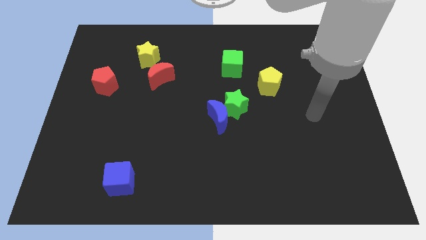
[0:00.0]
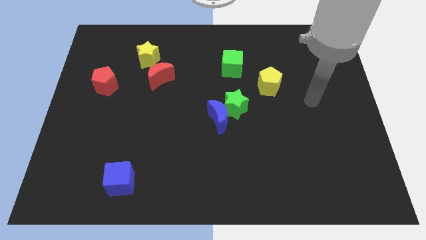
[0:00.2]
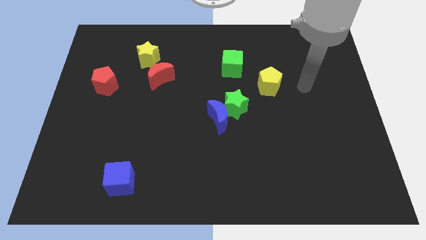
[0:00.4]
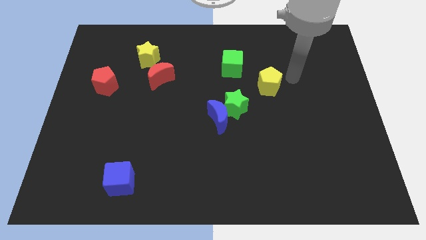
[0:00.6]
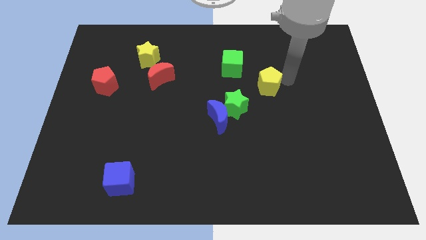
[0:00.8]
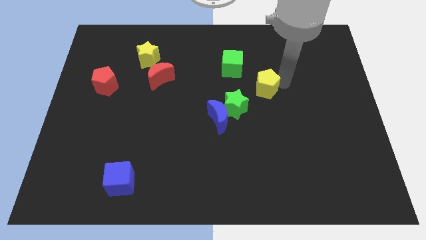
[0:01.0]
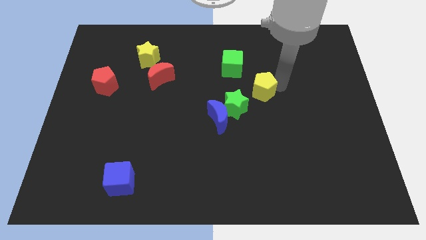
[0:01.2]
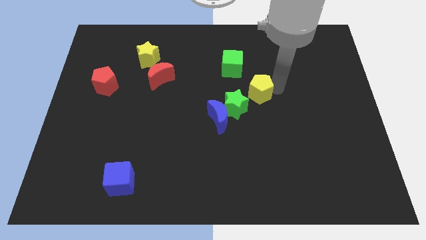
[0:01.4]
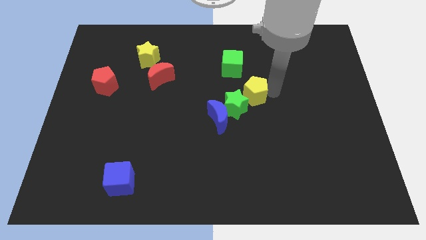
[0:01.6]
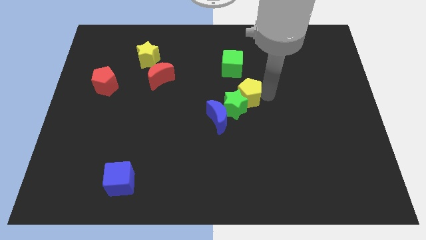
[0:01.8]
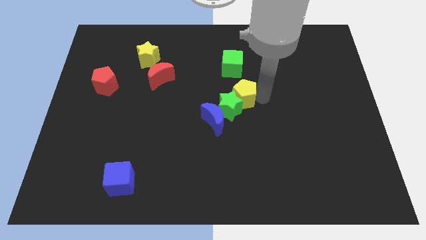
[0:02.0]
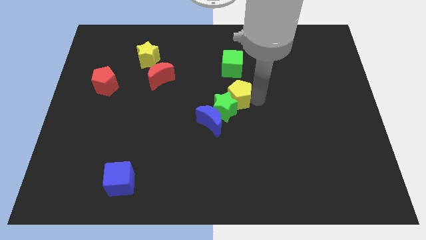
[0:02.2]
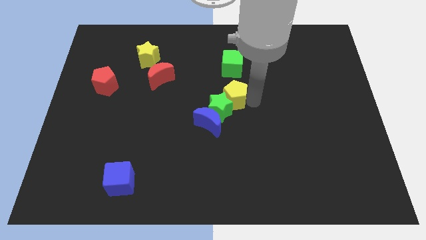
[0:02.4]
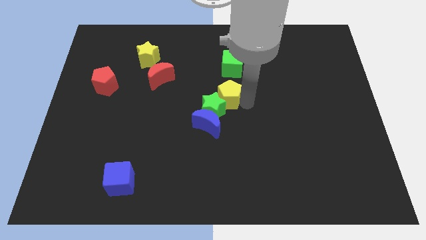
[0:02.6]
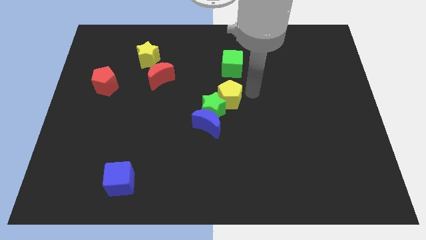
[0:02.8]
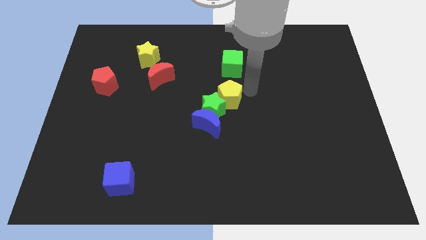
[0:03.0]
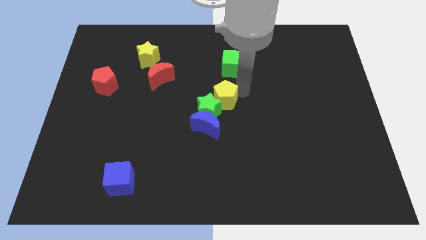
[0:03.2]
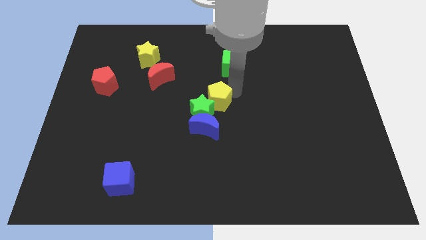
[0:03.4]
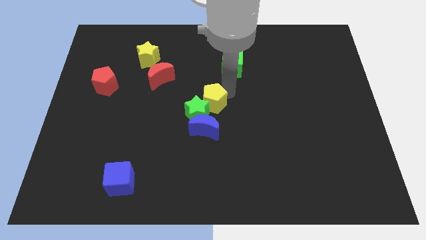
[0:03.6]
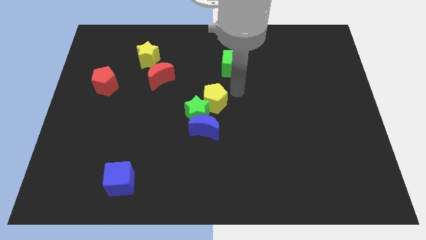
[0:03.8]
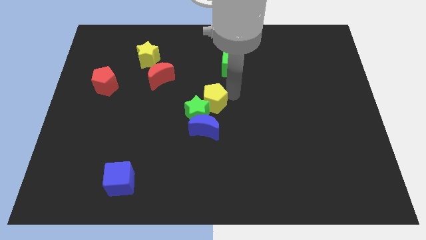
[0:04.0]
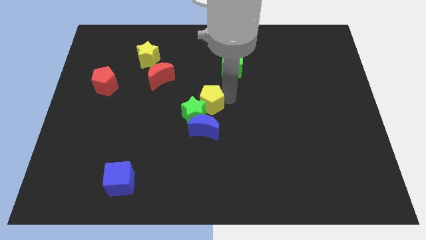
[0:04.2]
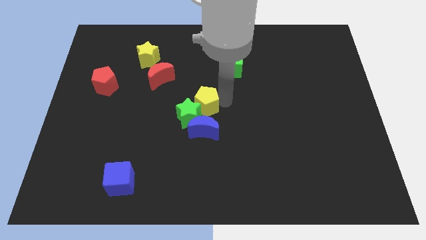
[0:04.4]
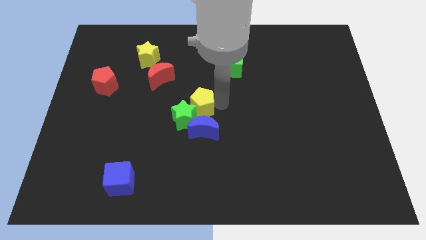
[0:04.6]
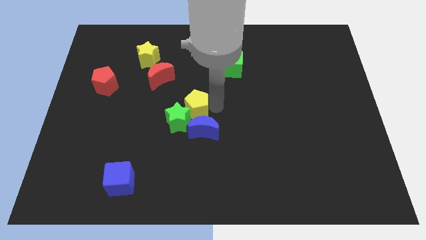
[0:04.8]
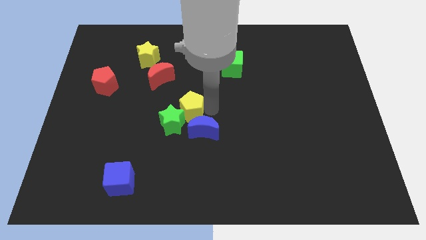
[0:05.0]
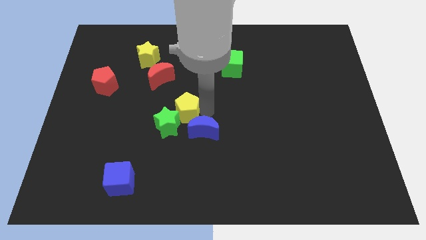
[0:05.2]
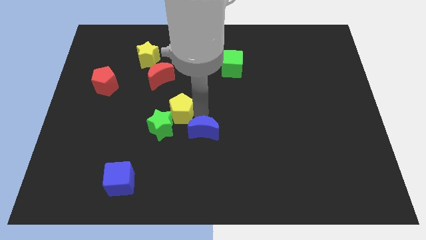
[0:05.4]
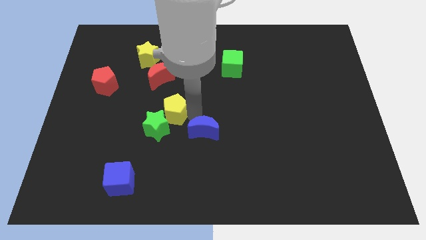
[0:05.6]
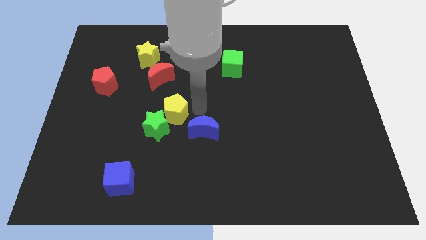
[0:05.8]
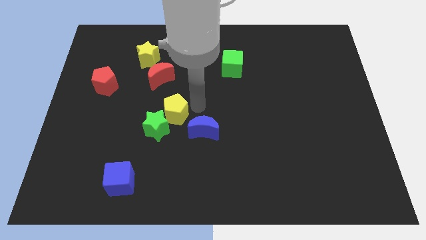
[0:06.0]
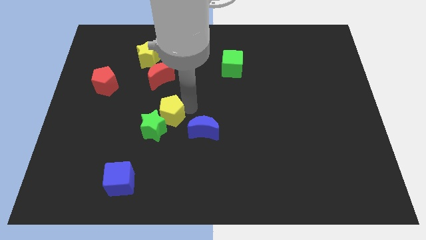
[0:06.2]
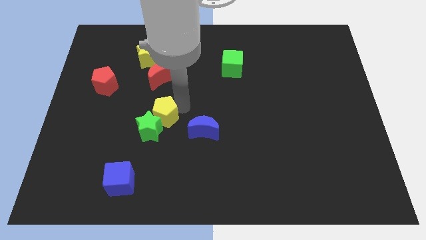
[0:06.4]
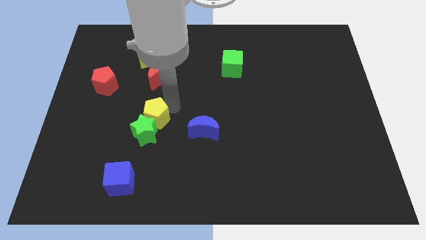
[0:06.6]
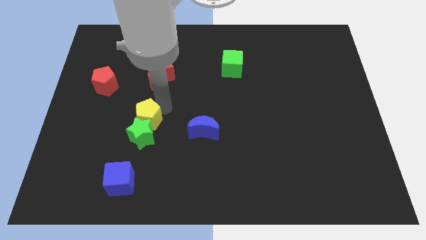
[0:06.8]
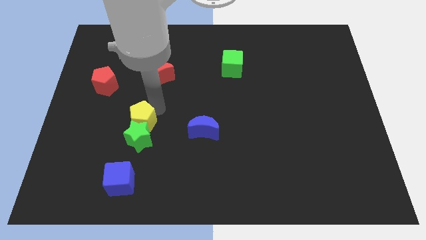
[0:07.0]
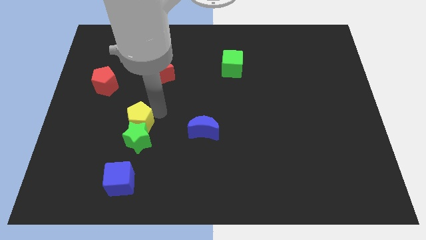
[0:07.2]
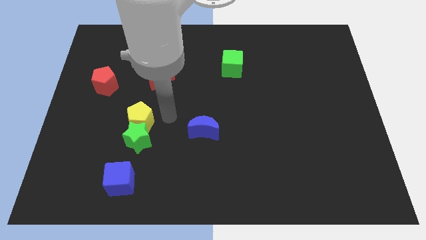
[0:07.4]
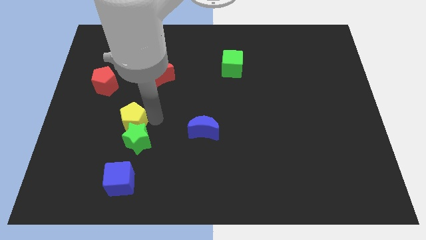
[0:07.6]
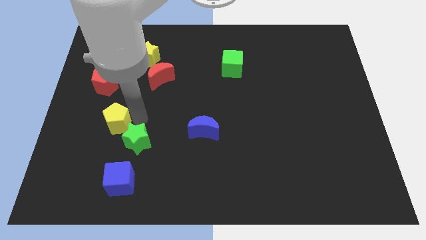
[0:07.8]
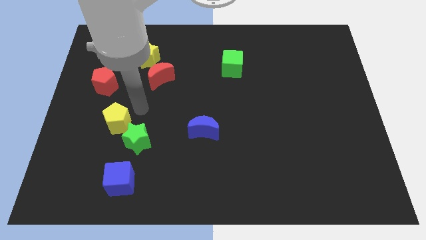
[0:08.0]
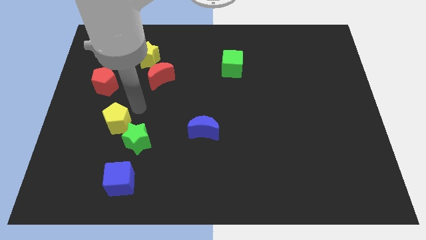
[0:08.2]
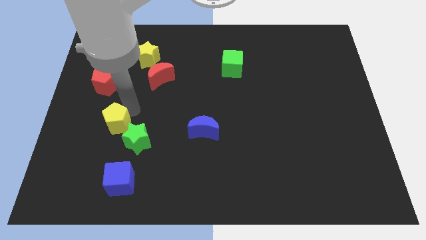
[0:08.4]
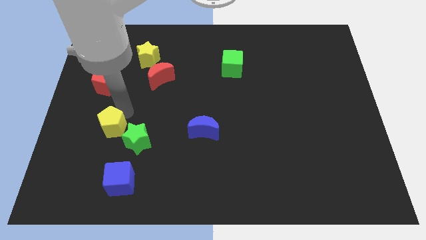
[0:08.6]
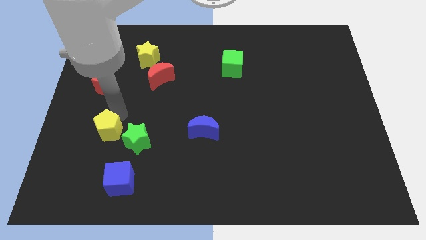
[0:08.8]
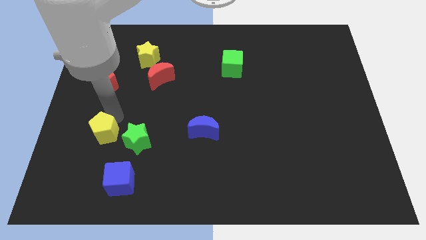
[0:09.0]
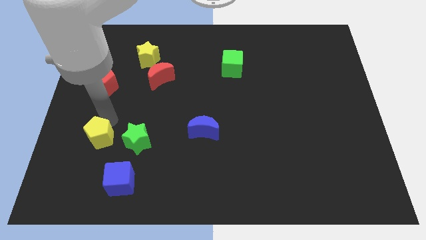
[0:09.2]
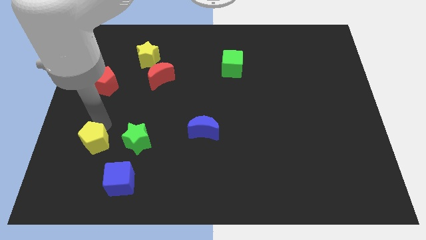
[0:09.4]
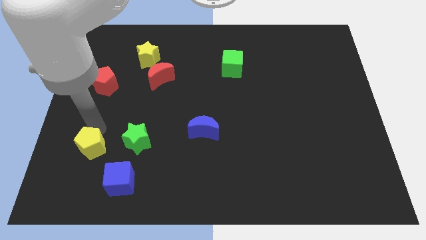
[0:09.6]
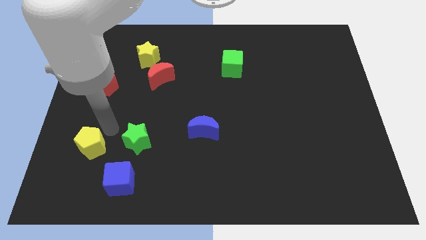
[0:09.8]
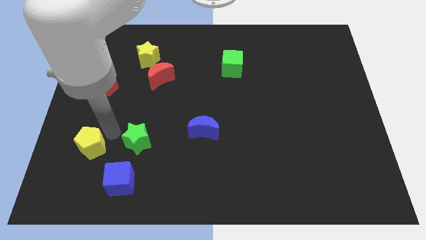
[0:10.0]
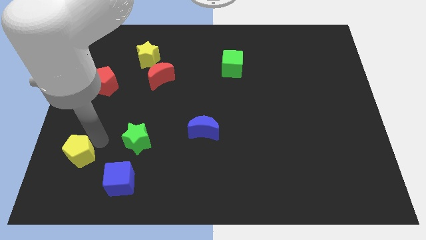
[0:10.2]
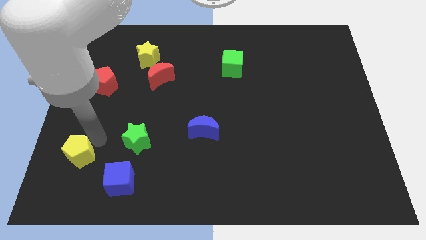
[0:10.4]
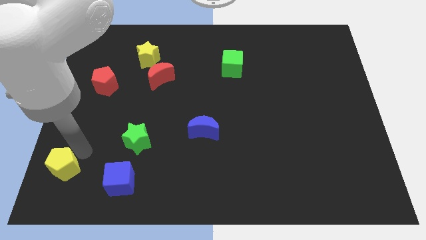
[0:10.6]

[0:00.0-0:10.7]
push the yellow pentagon to the lower left corner

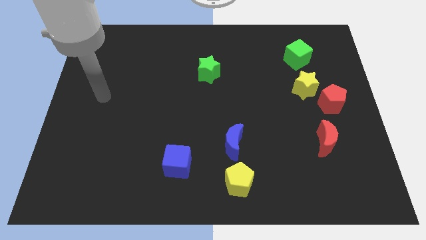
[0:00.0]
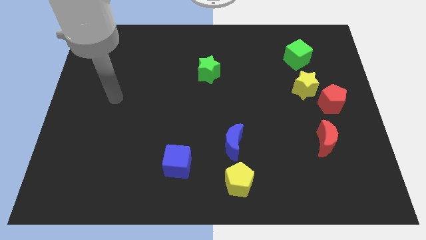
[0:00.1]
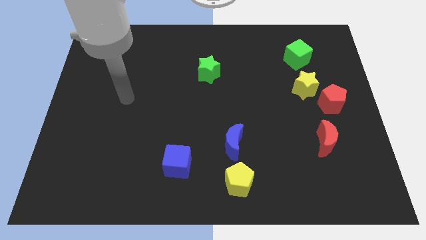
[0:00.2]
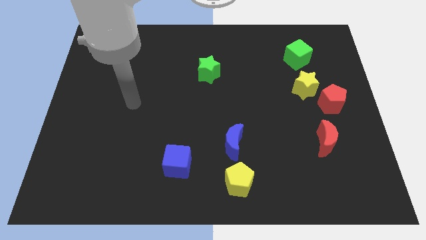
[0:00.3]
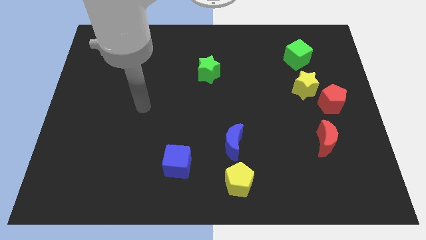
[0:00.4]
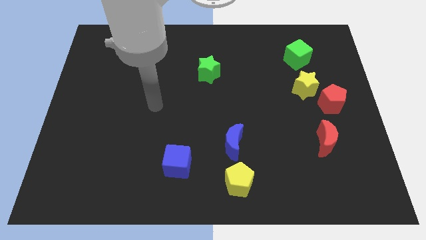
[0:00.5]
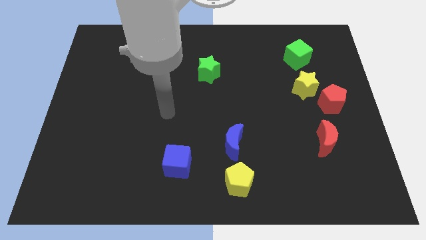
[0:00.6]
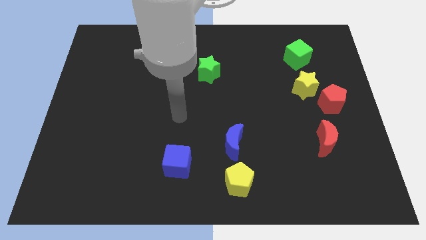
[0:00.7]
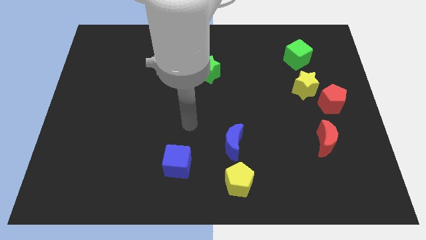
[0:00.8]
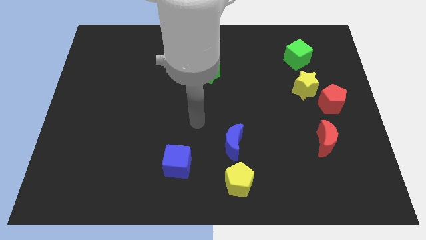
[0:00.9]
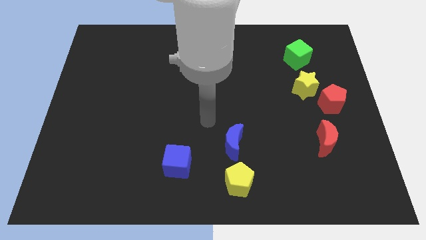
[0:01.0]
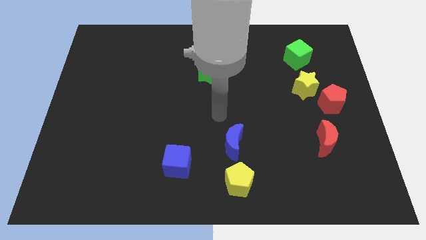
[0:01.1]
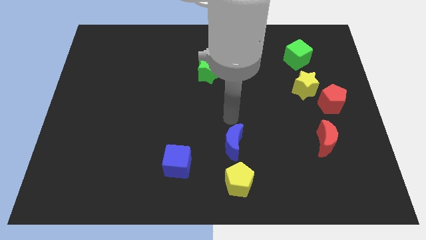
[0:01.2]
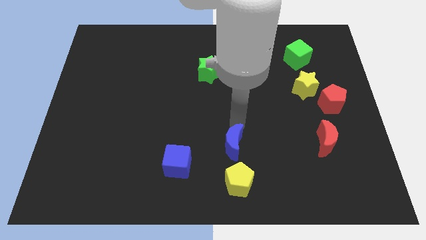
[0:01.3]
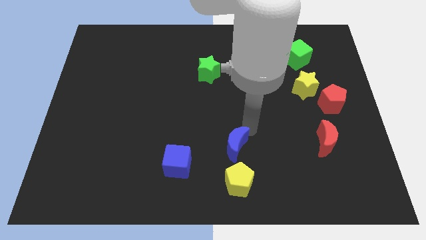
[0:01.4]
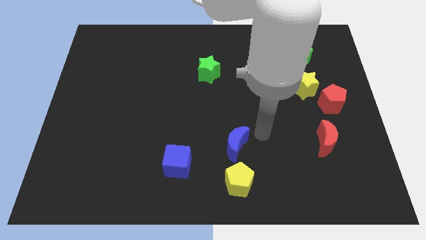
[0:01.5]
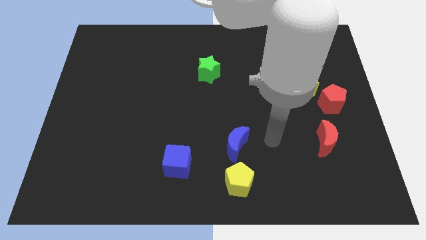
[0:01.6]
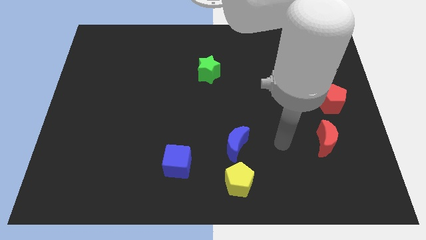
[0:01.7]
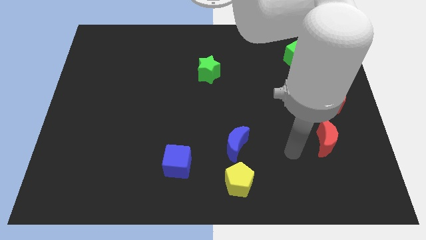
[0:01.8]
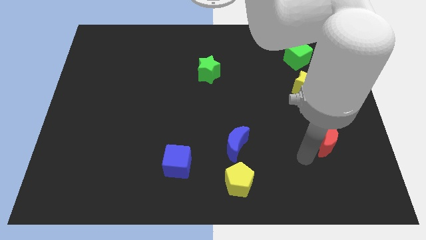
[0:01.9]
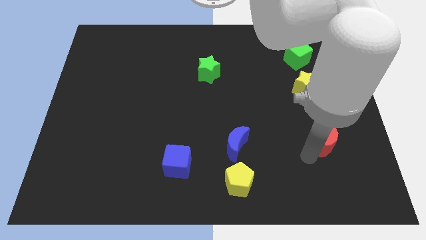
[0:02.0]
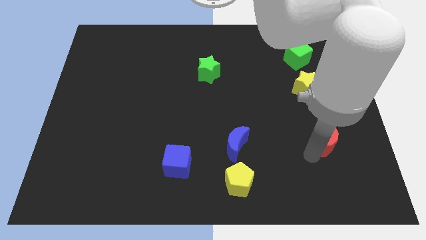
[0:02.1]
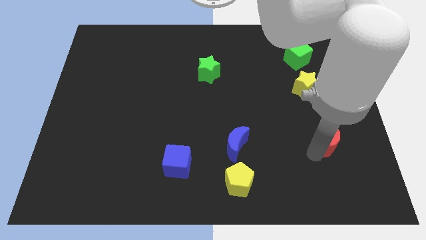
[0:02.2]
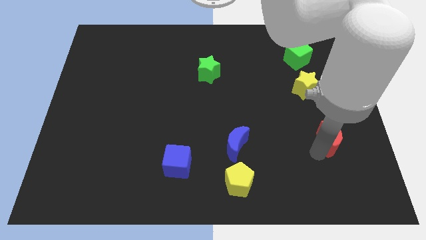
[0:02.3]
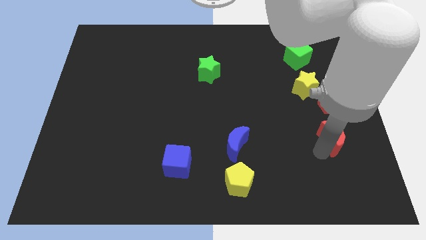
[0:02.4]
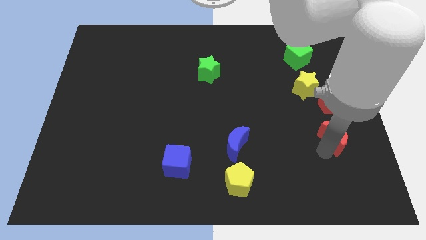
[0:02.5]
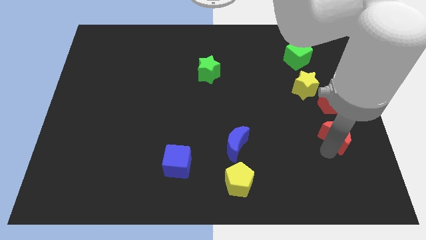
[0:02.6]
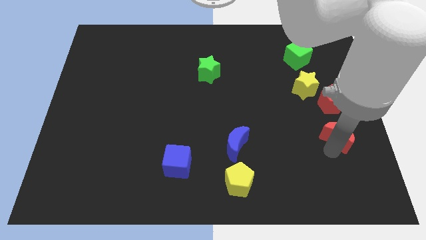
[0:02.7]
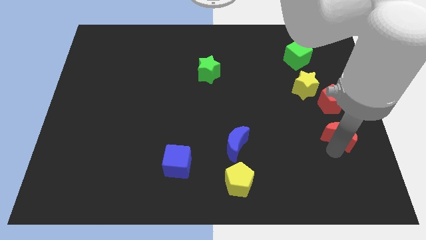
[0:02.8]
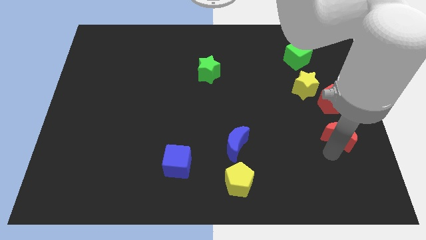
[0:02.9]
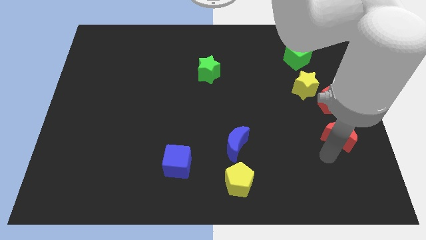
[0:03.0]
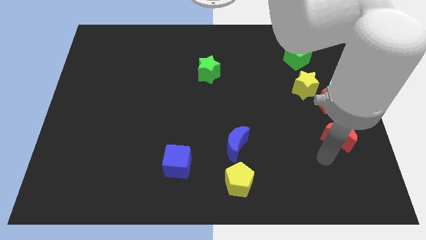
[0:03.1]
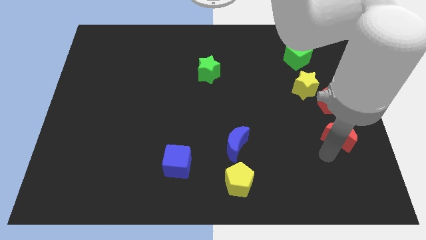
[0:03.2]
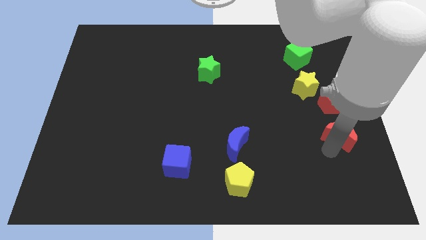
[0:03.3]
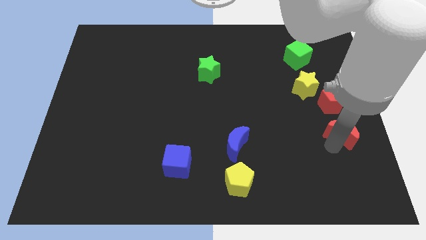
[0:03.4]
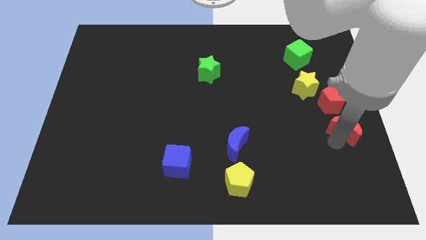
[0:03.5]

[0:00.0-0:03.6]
put the red moon to the right side of the board
